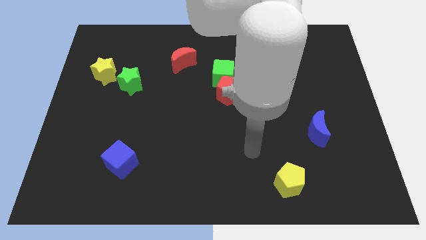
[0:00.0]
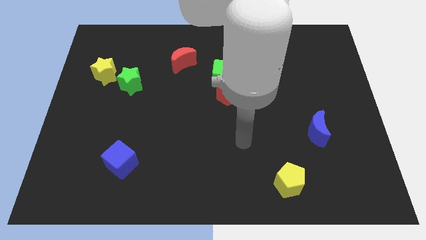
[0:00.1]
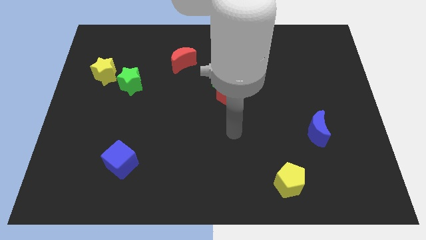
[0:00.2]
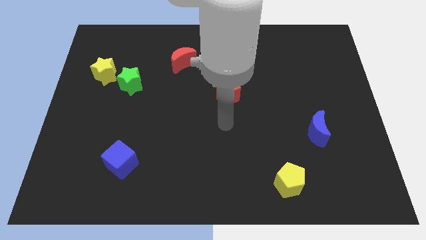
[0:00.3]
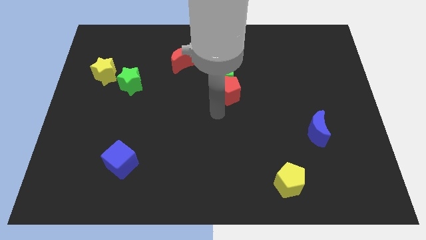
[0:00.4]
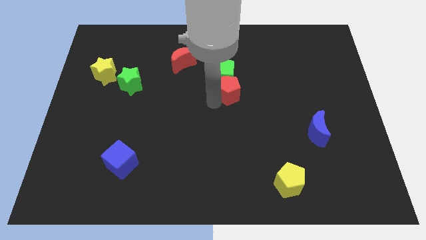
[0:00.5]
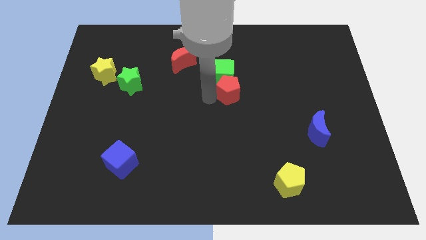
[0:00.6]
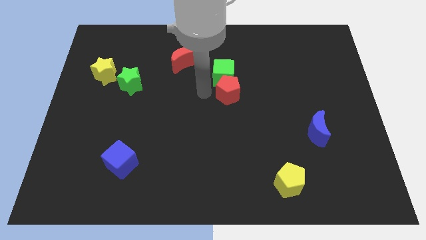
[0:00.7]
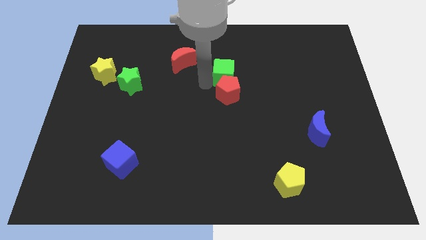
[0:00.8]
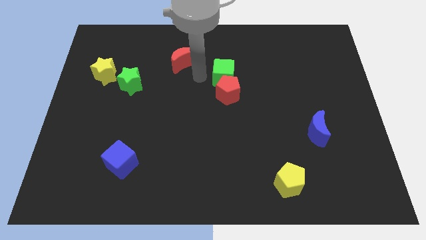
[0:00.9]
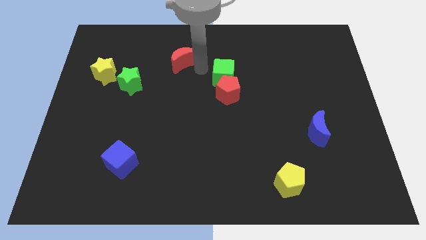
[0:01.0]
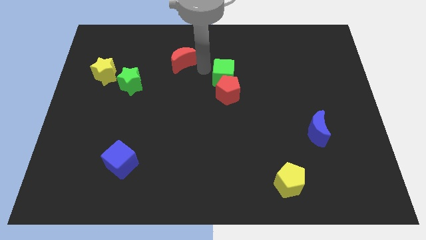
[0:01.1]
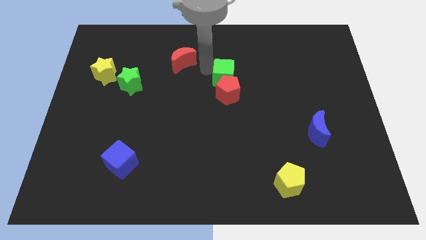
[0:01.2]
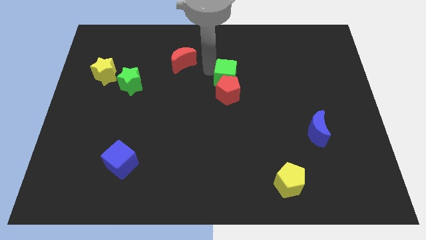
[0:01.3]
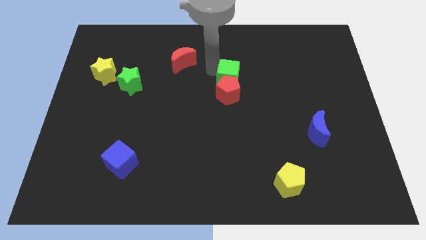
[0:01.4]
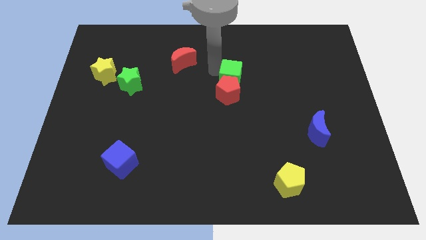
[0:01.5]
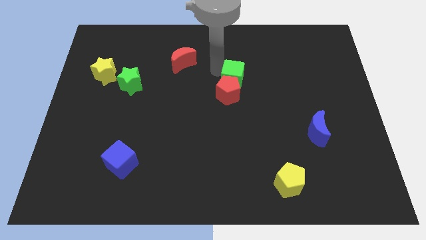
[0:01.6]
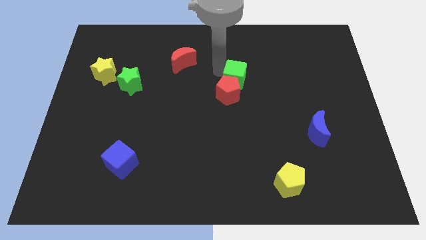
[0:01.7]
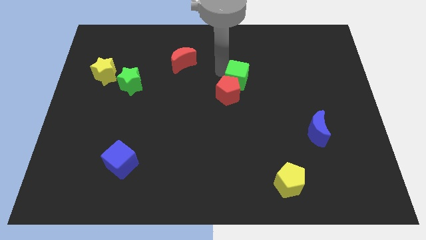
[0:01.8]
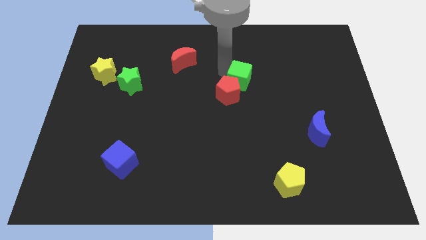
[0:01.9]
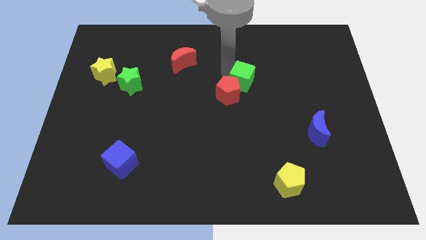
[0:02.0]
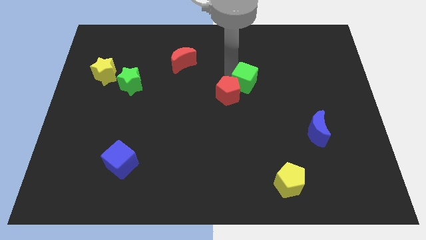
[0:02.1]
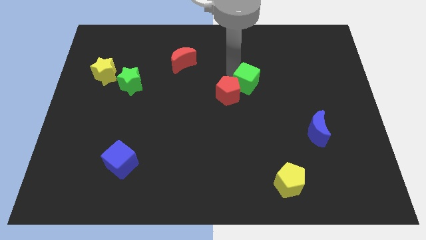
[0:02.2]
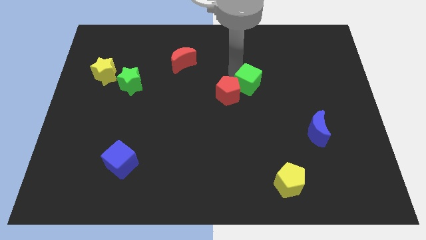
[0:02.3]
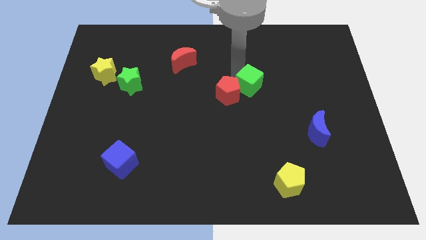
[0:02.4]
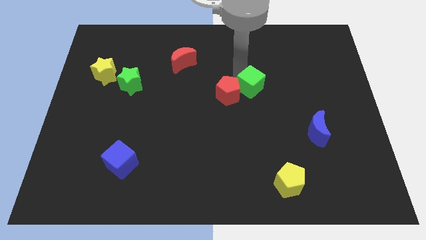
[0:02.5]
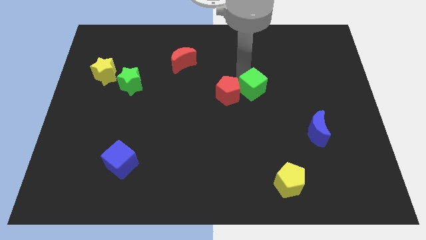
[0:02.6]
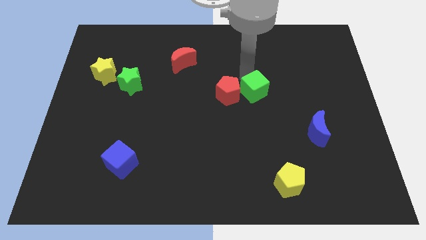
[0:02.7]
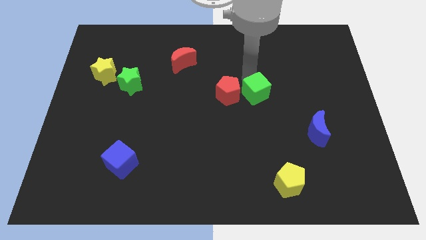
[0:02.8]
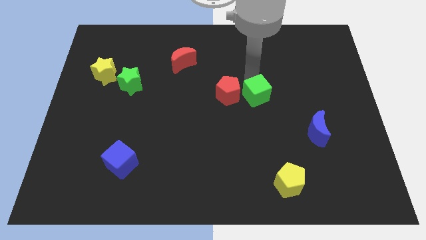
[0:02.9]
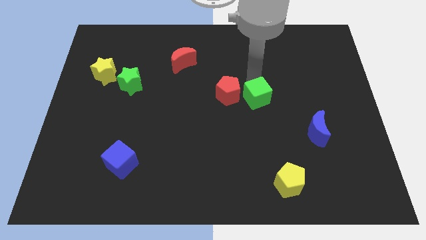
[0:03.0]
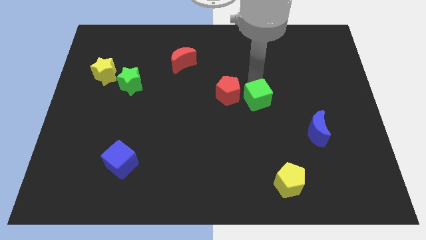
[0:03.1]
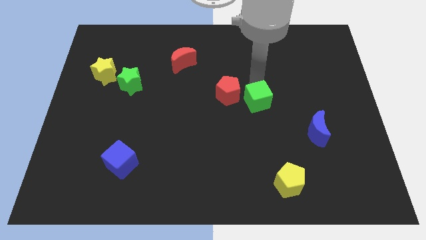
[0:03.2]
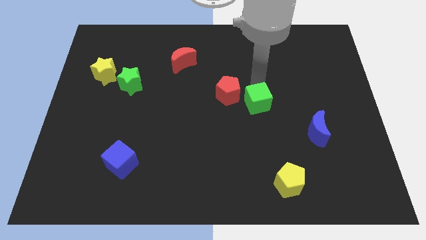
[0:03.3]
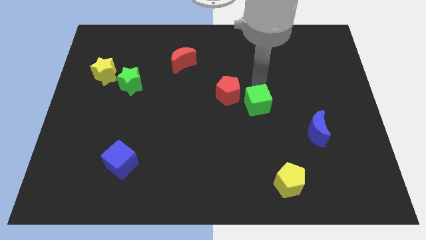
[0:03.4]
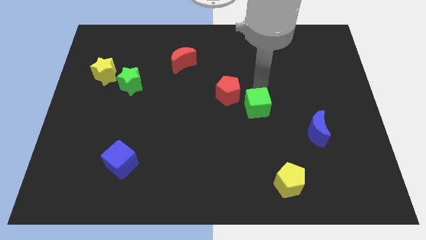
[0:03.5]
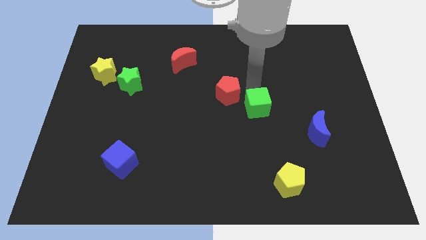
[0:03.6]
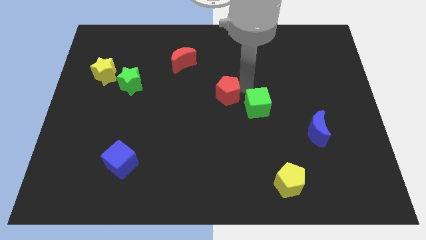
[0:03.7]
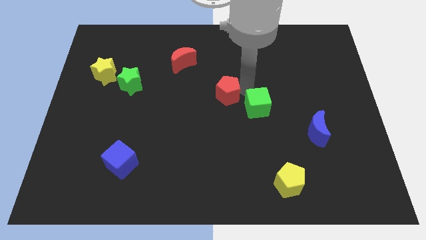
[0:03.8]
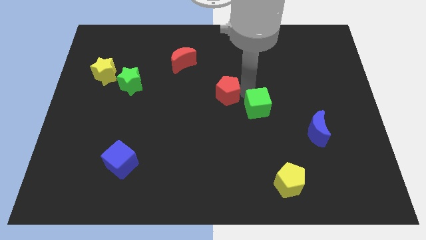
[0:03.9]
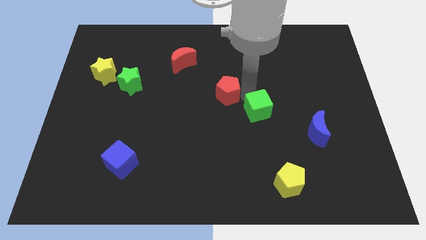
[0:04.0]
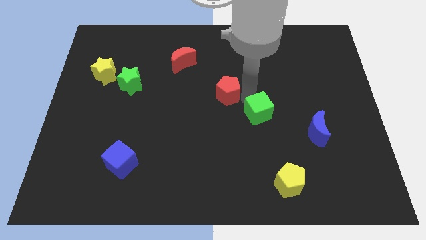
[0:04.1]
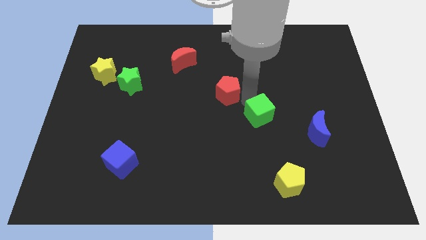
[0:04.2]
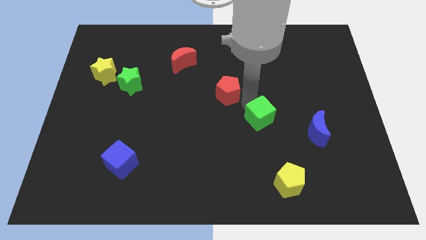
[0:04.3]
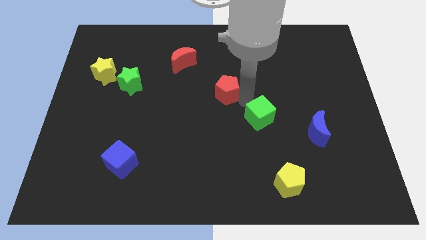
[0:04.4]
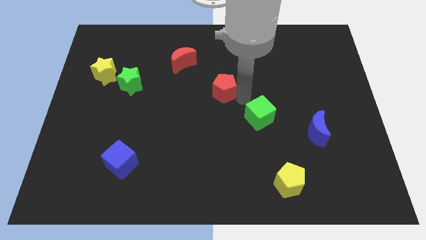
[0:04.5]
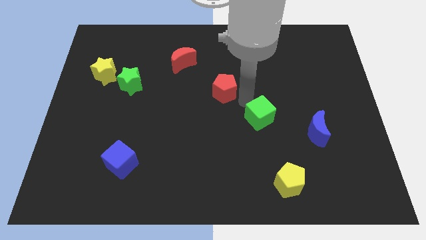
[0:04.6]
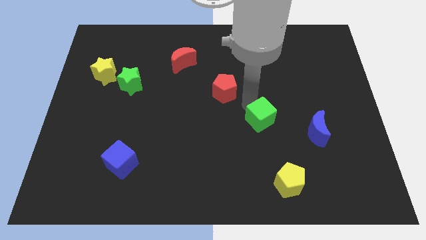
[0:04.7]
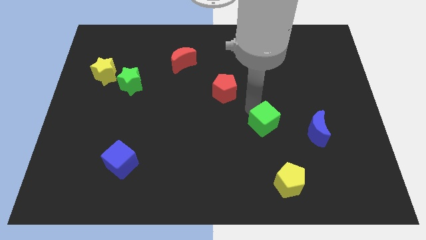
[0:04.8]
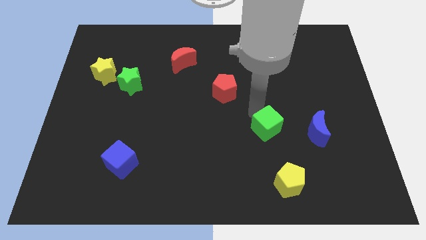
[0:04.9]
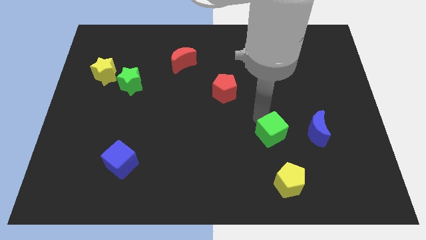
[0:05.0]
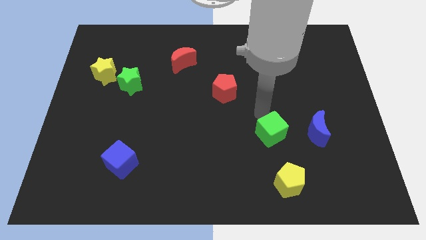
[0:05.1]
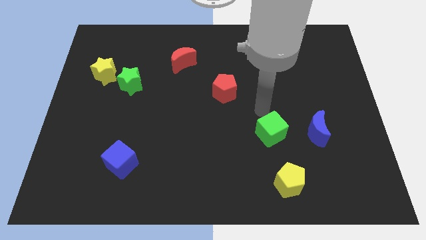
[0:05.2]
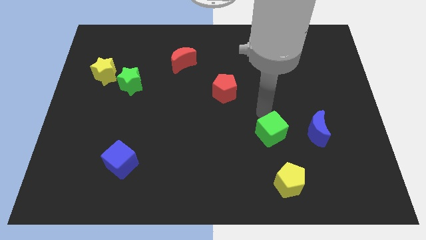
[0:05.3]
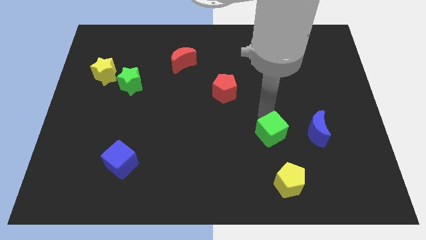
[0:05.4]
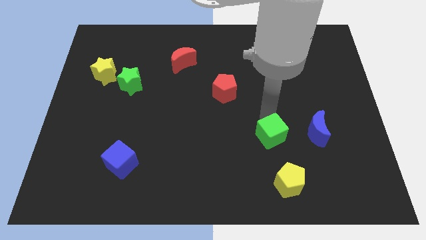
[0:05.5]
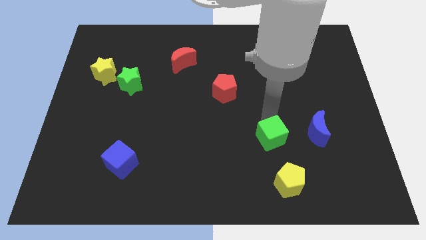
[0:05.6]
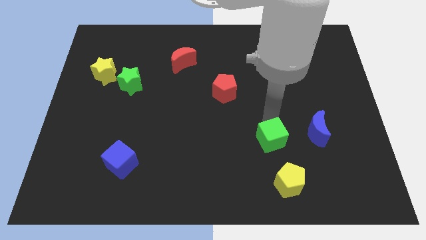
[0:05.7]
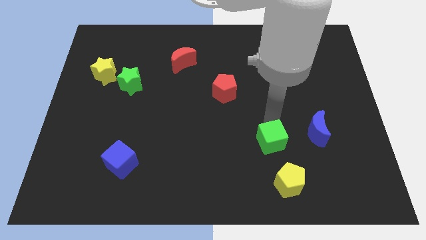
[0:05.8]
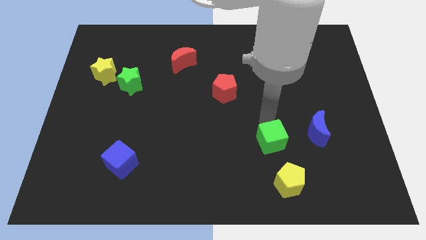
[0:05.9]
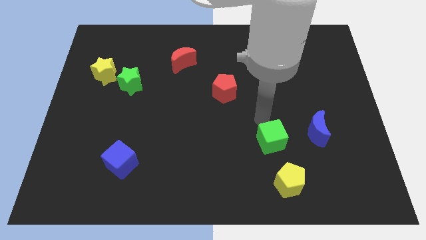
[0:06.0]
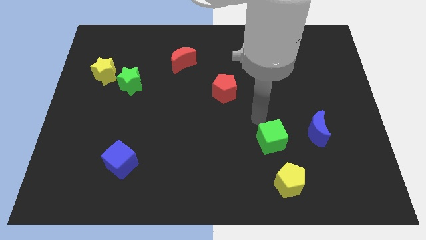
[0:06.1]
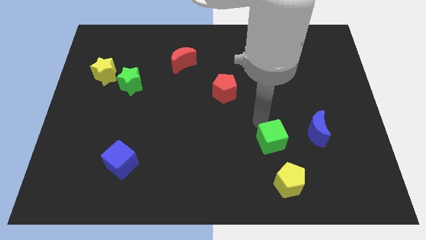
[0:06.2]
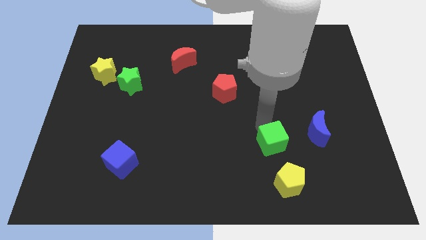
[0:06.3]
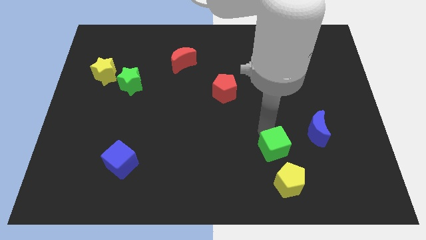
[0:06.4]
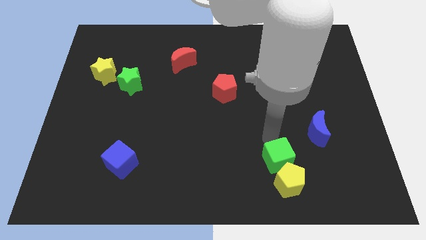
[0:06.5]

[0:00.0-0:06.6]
move the green cube next to the yellow pentagon
